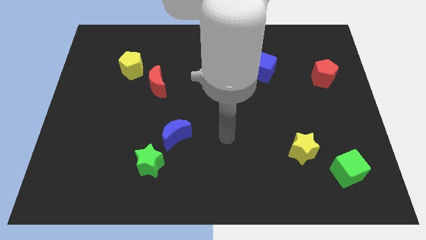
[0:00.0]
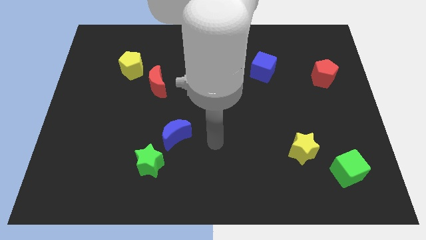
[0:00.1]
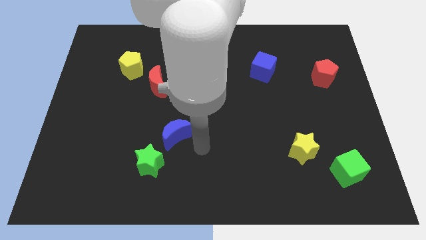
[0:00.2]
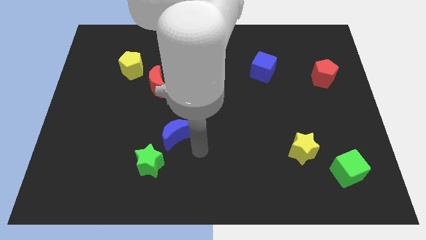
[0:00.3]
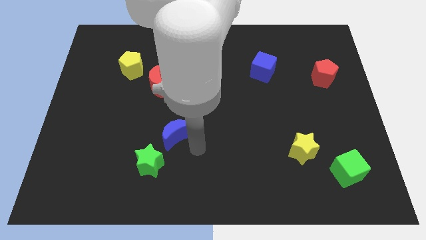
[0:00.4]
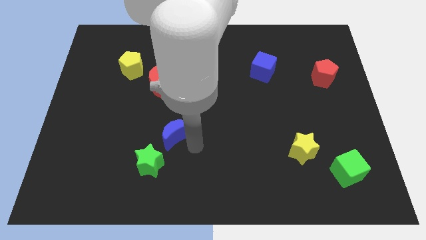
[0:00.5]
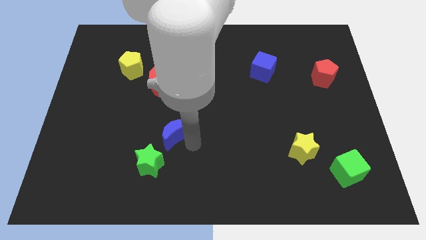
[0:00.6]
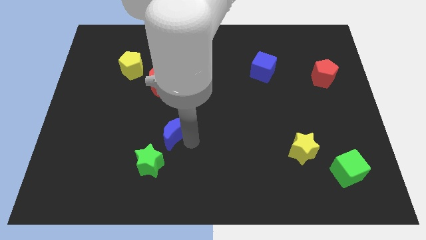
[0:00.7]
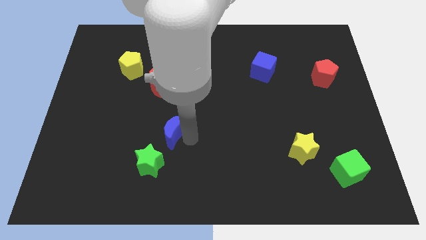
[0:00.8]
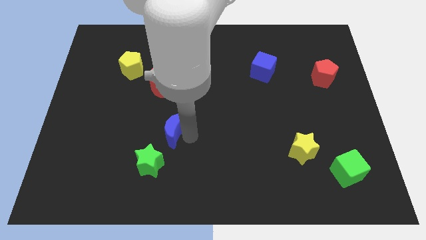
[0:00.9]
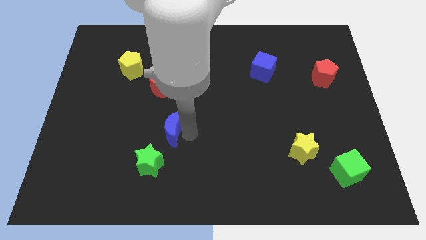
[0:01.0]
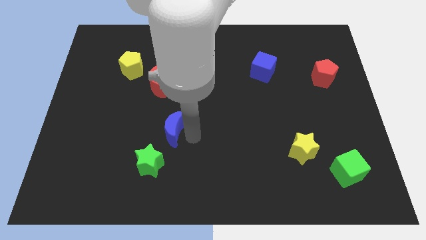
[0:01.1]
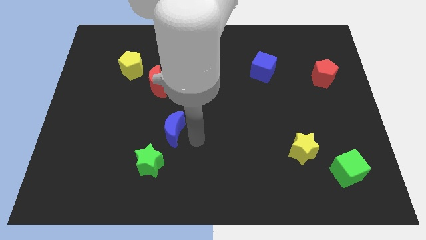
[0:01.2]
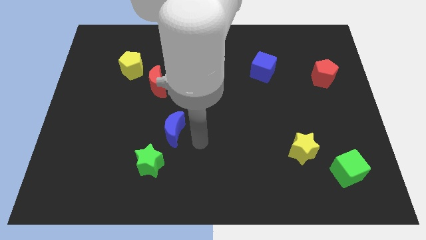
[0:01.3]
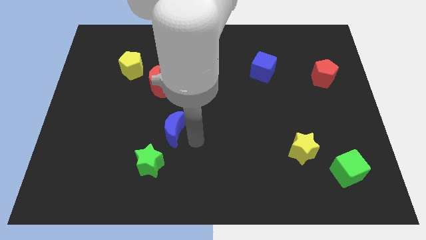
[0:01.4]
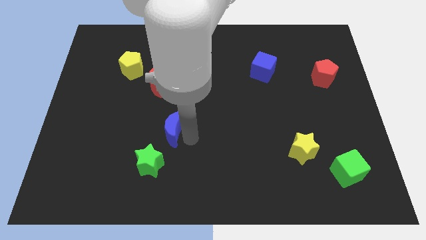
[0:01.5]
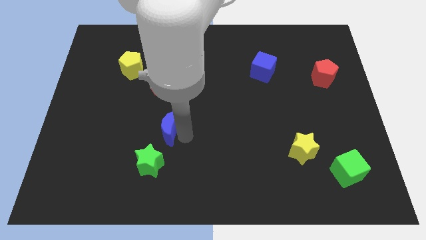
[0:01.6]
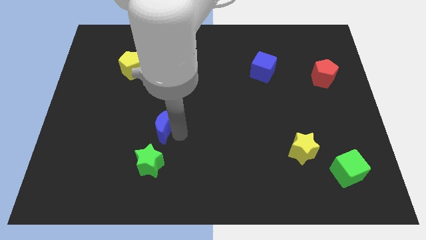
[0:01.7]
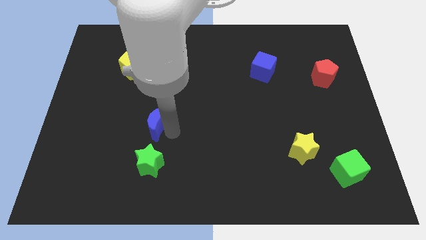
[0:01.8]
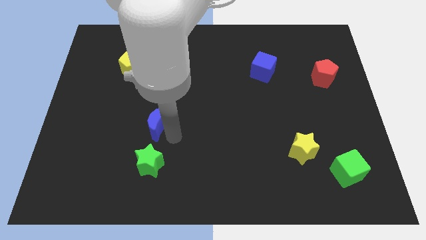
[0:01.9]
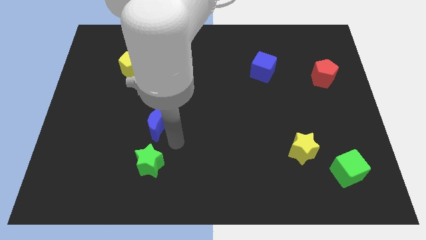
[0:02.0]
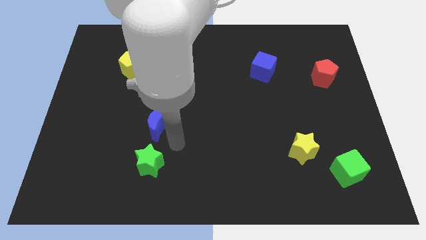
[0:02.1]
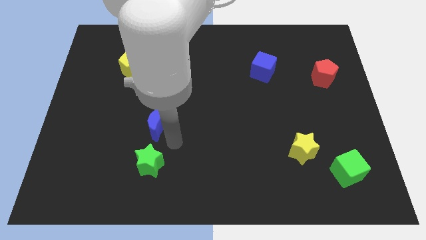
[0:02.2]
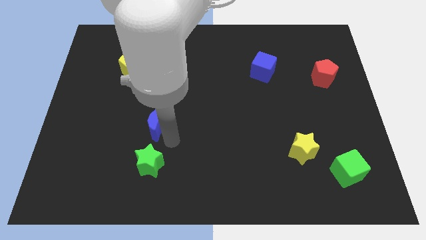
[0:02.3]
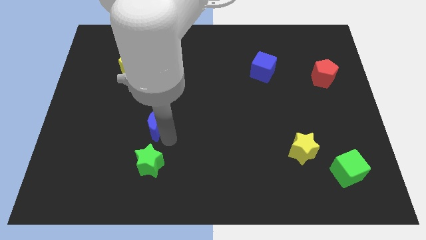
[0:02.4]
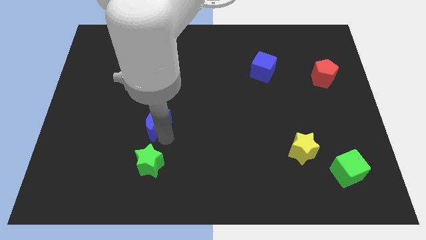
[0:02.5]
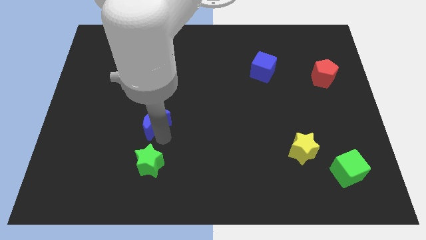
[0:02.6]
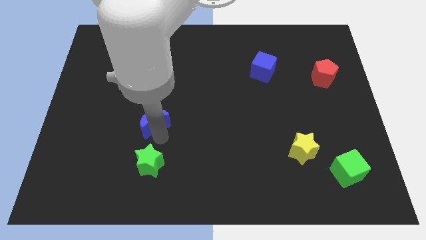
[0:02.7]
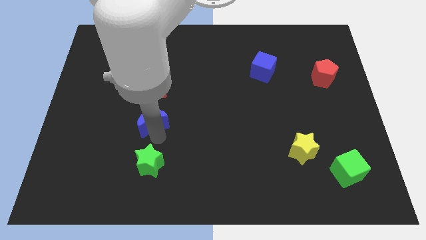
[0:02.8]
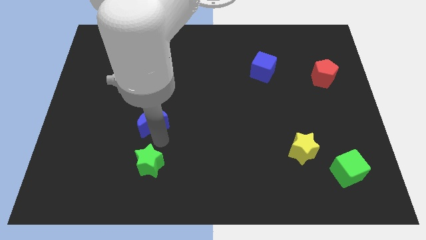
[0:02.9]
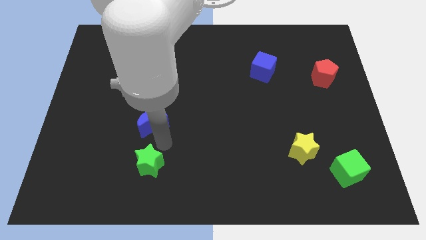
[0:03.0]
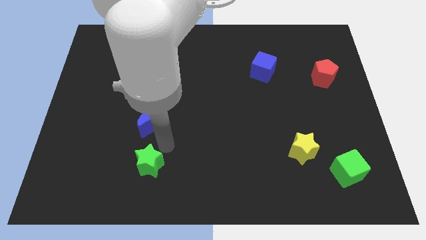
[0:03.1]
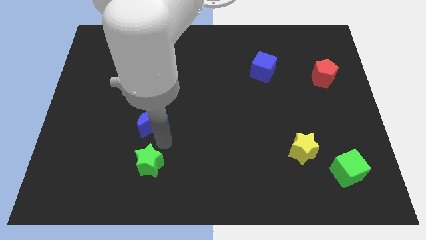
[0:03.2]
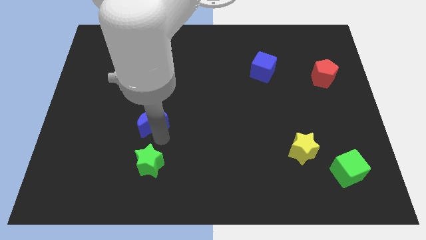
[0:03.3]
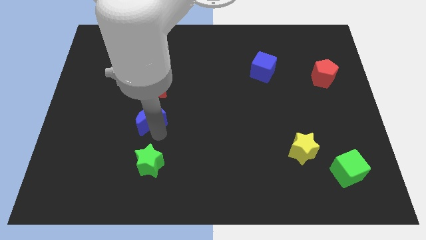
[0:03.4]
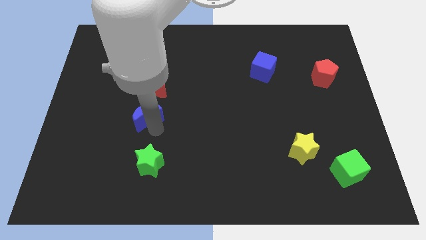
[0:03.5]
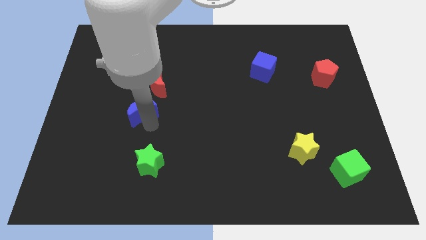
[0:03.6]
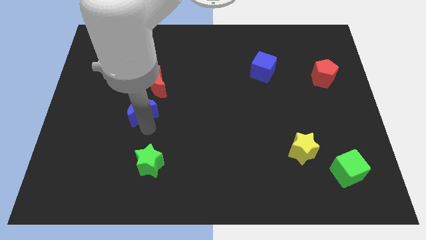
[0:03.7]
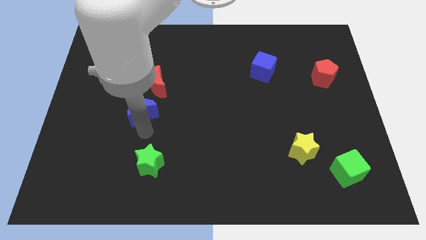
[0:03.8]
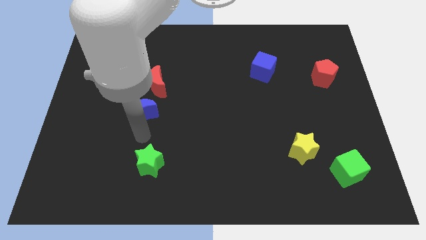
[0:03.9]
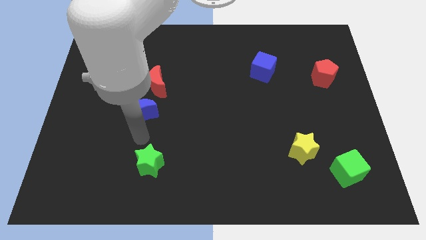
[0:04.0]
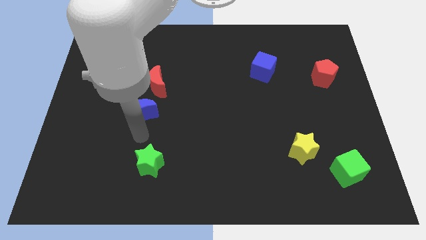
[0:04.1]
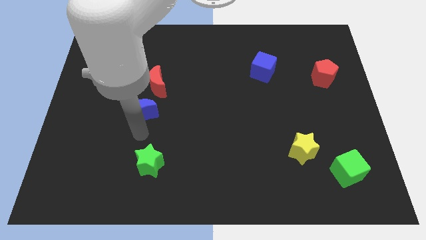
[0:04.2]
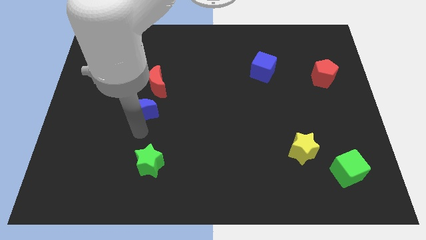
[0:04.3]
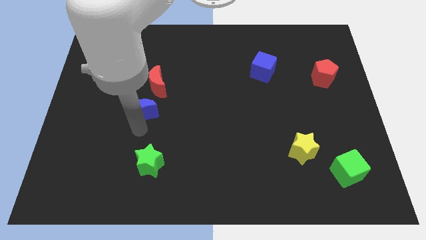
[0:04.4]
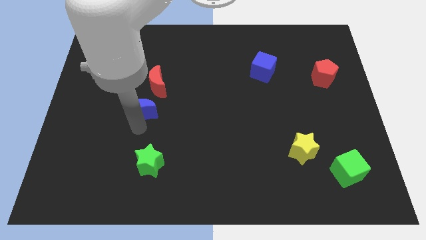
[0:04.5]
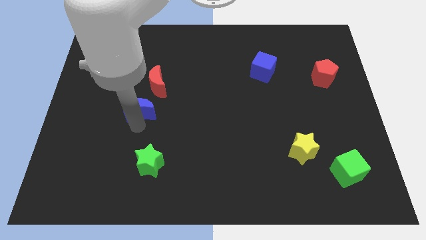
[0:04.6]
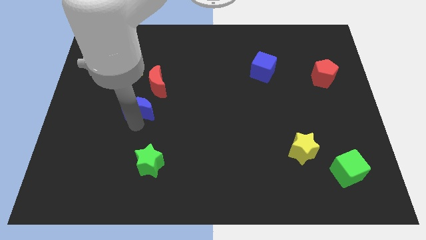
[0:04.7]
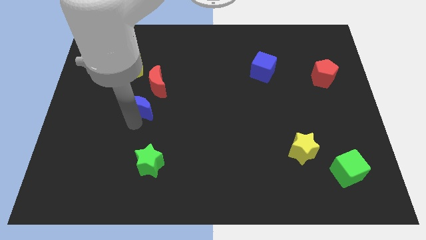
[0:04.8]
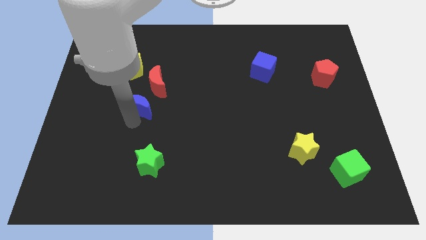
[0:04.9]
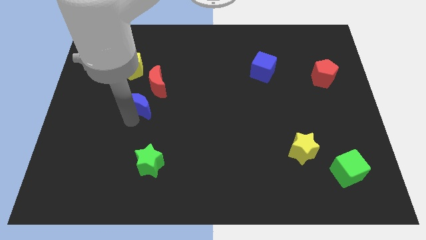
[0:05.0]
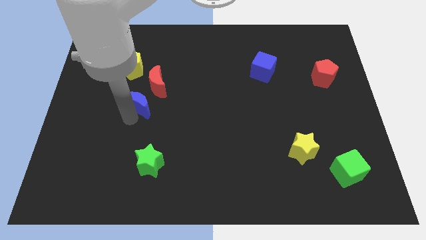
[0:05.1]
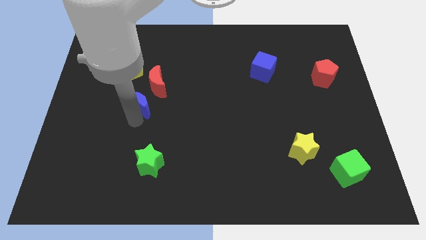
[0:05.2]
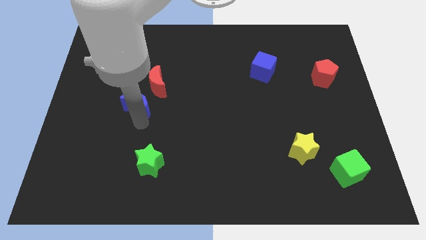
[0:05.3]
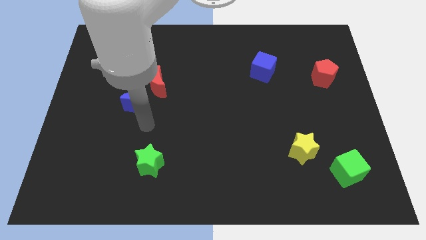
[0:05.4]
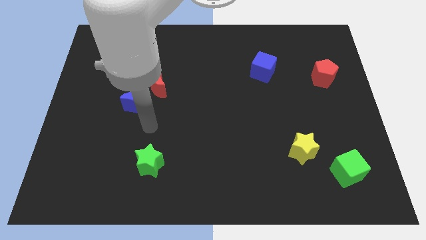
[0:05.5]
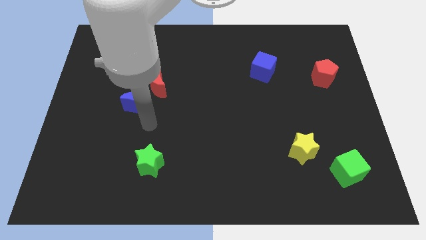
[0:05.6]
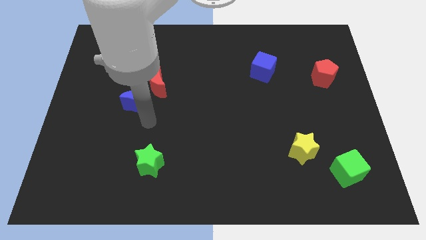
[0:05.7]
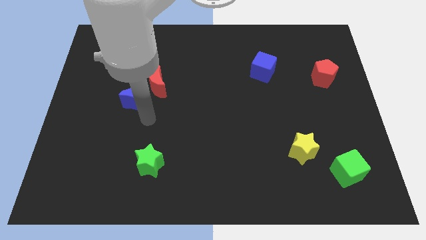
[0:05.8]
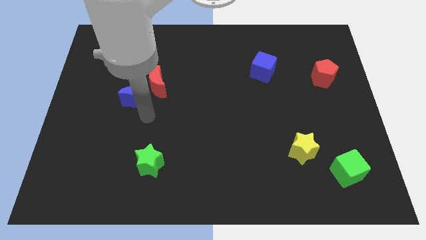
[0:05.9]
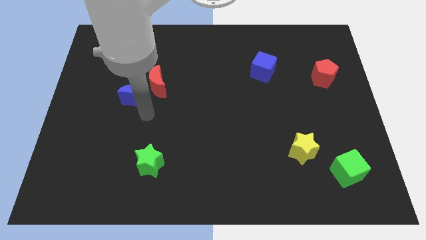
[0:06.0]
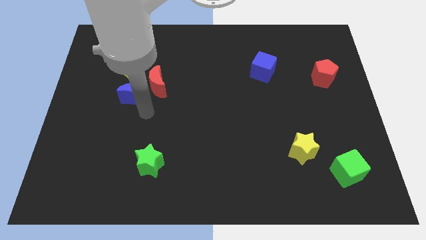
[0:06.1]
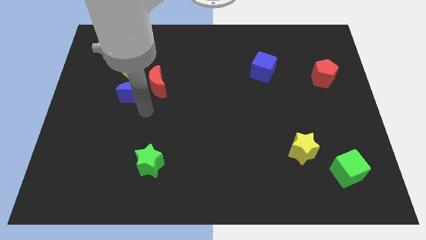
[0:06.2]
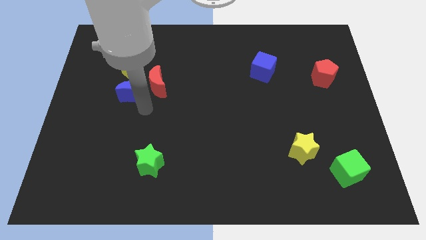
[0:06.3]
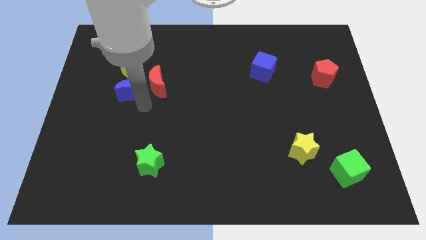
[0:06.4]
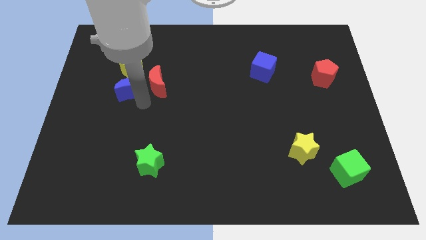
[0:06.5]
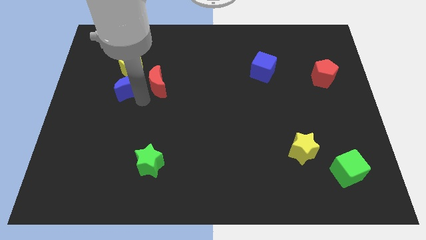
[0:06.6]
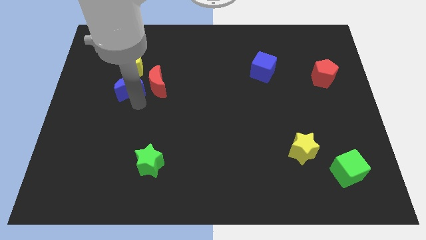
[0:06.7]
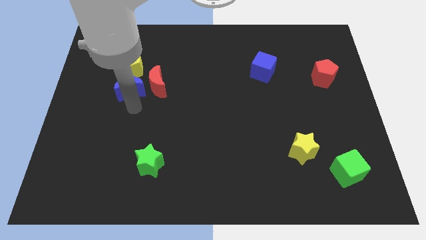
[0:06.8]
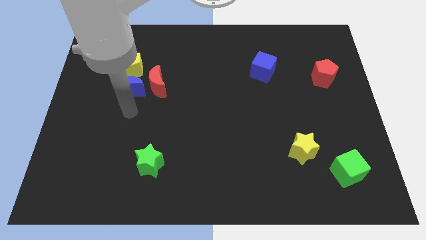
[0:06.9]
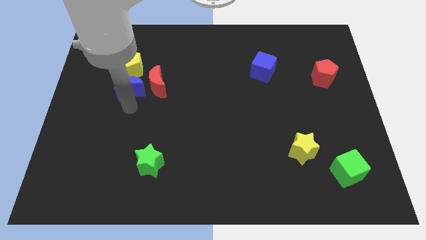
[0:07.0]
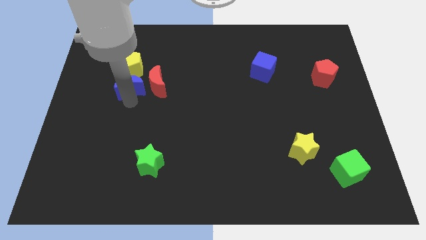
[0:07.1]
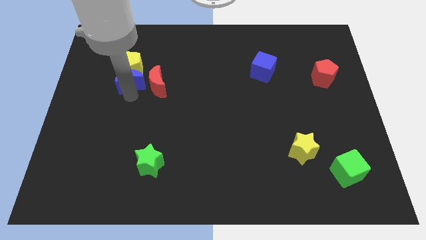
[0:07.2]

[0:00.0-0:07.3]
move the blue moon close to the yellow pentagon
